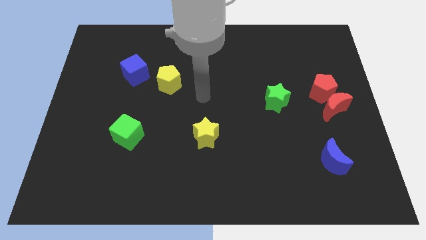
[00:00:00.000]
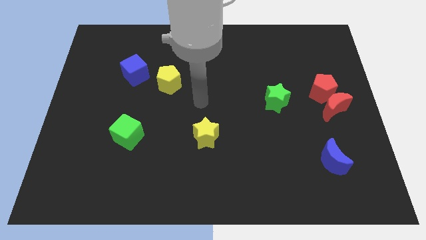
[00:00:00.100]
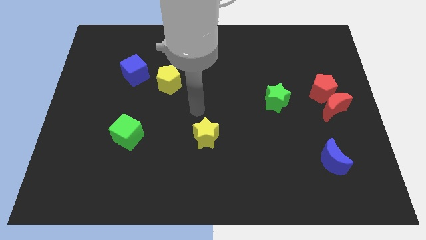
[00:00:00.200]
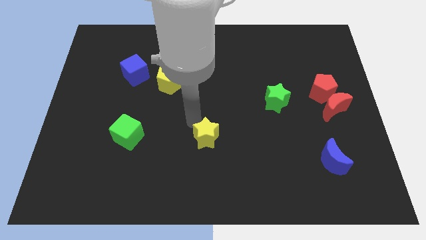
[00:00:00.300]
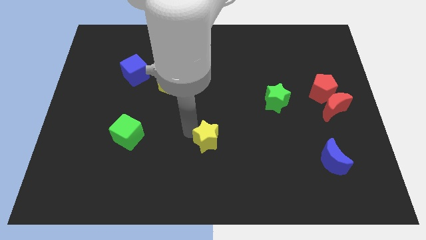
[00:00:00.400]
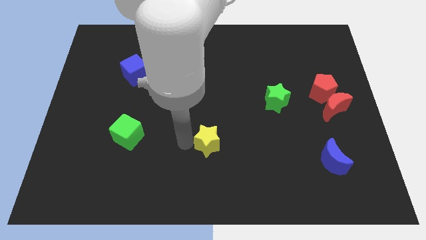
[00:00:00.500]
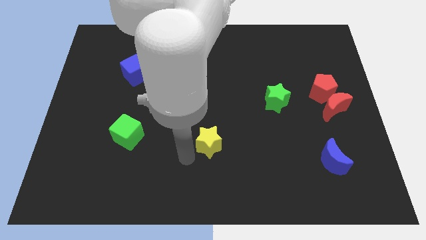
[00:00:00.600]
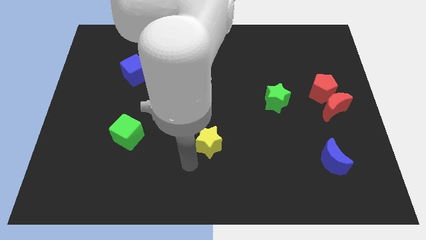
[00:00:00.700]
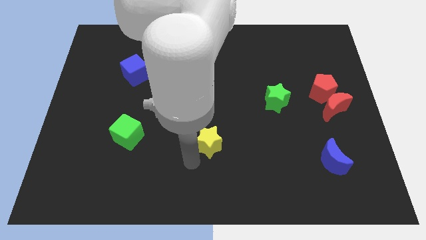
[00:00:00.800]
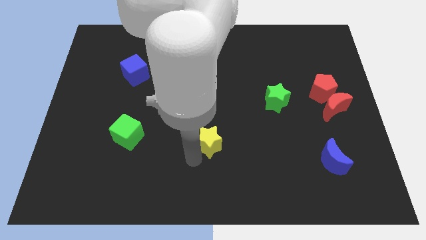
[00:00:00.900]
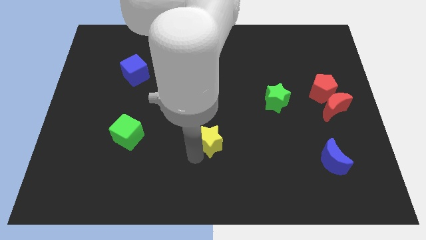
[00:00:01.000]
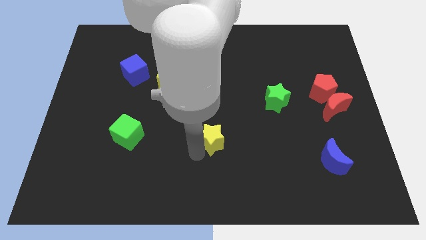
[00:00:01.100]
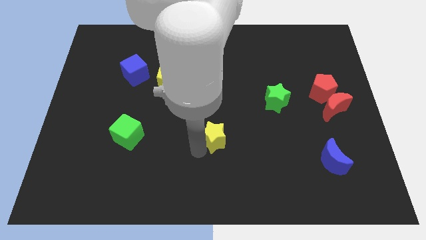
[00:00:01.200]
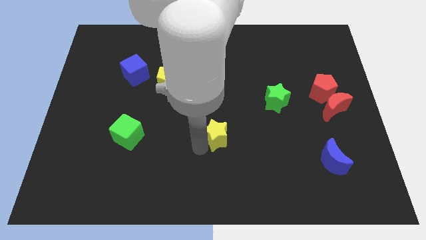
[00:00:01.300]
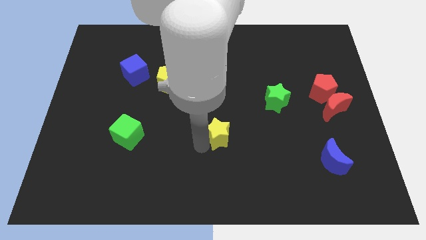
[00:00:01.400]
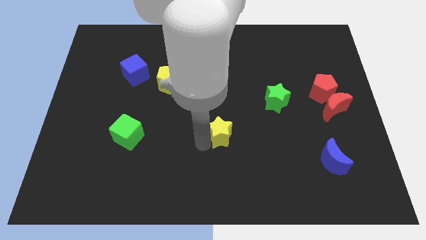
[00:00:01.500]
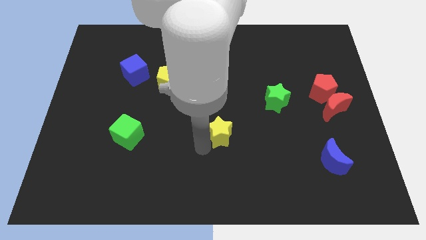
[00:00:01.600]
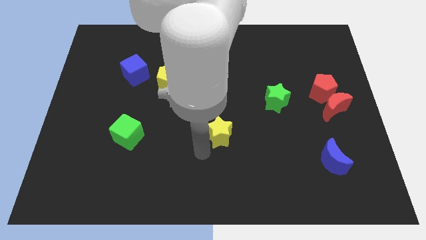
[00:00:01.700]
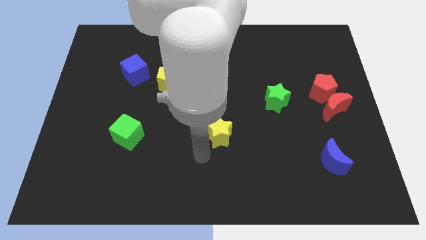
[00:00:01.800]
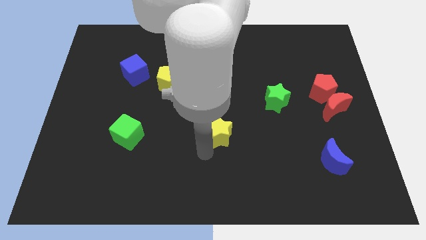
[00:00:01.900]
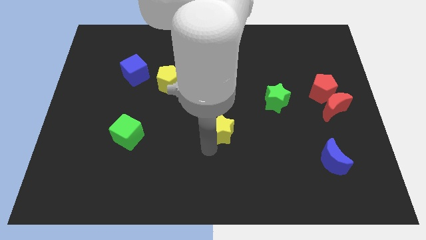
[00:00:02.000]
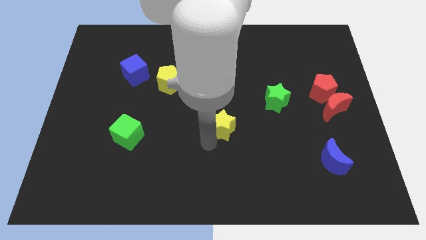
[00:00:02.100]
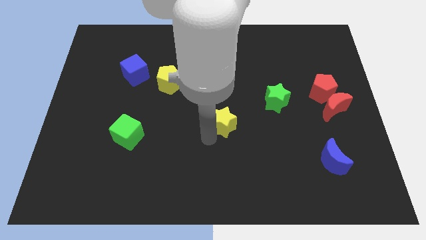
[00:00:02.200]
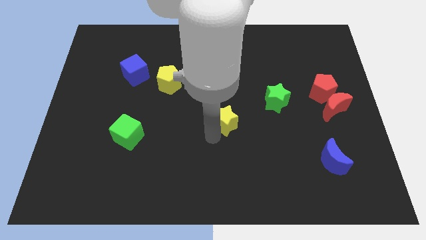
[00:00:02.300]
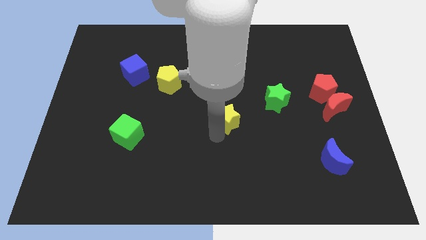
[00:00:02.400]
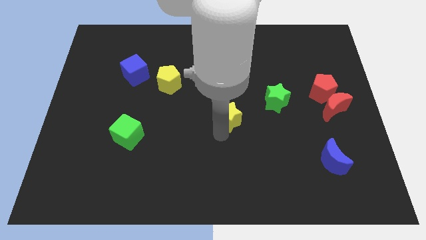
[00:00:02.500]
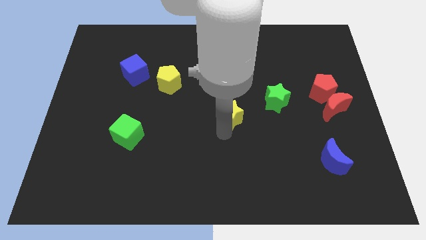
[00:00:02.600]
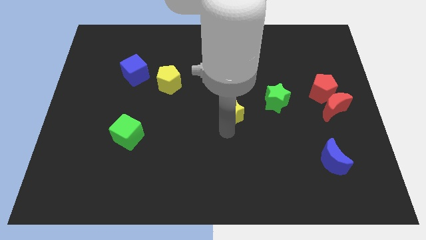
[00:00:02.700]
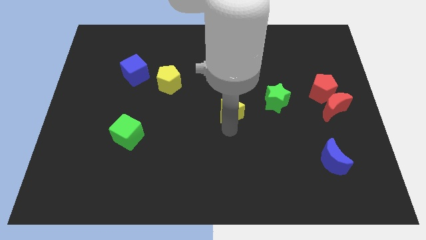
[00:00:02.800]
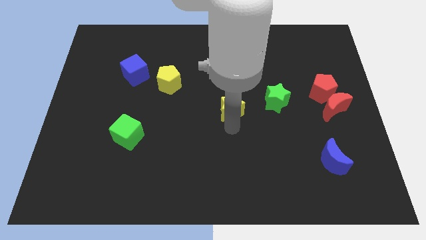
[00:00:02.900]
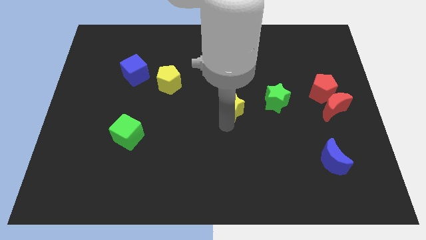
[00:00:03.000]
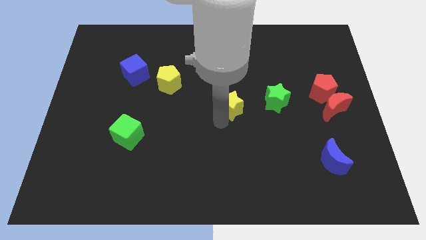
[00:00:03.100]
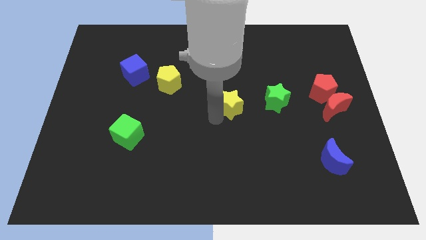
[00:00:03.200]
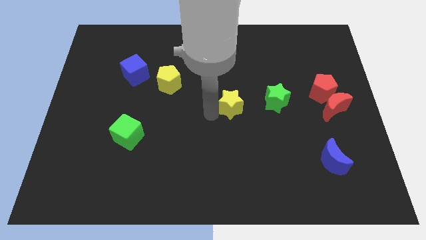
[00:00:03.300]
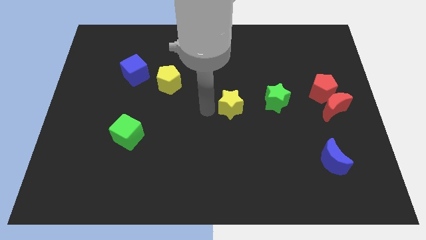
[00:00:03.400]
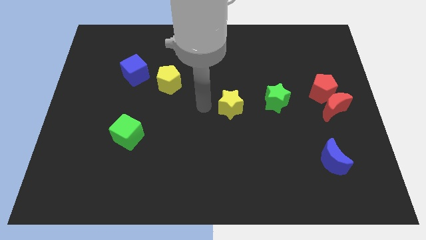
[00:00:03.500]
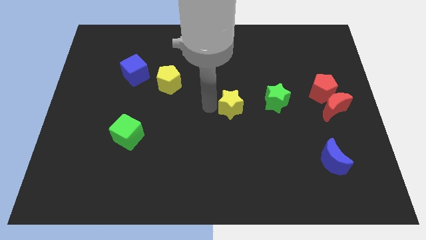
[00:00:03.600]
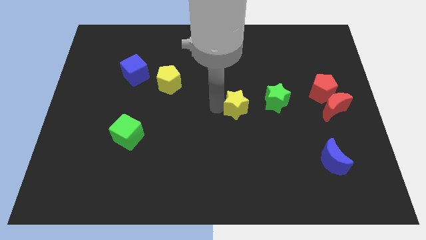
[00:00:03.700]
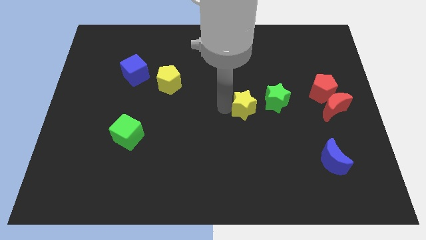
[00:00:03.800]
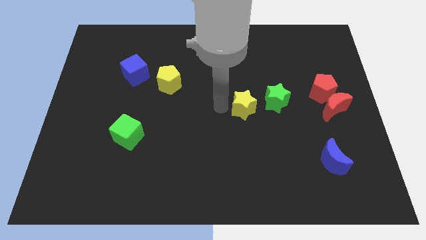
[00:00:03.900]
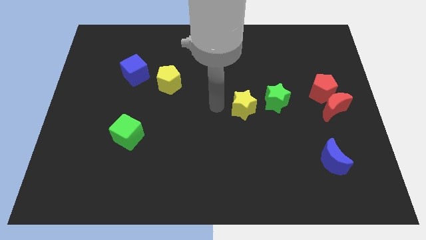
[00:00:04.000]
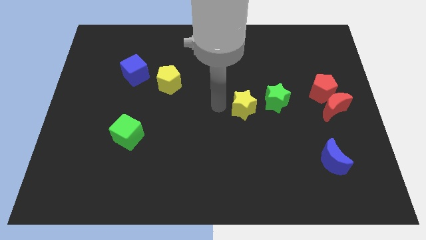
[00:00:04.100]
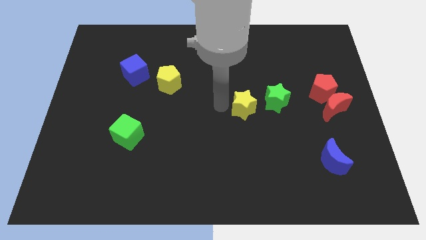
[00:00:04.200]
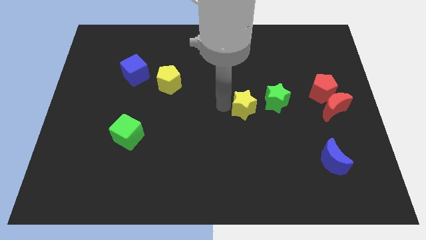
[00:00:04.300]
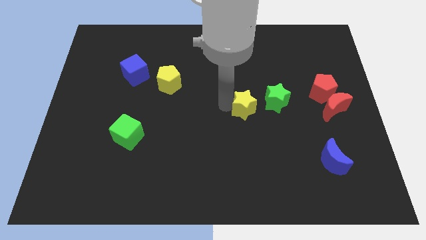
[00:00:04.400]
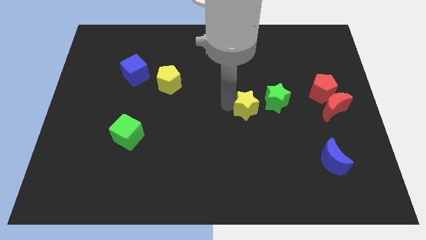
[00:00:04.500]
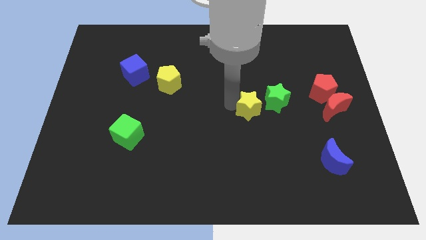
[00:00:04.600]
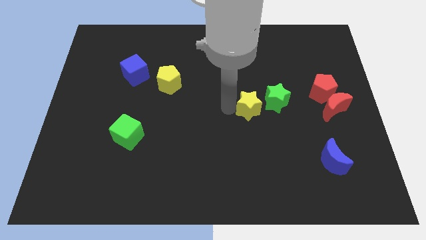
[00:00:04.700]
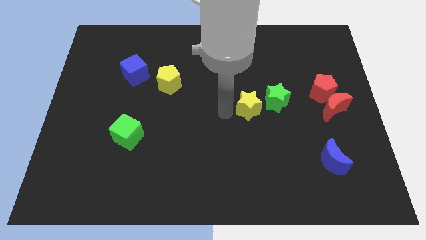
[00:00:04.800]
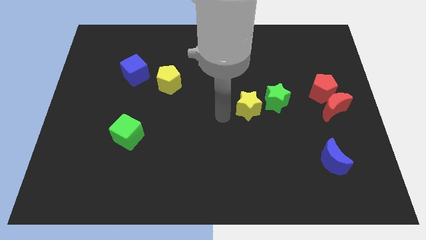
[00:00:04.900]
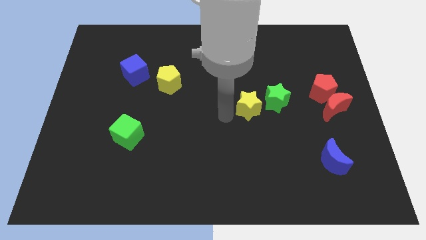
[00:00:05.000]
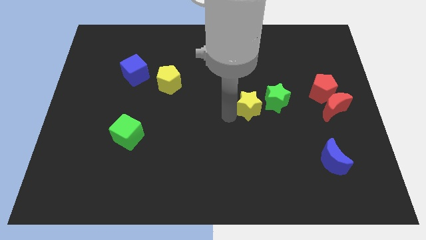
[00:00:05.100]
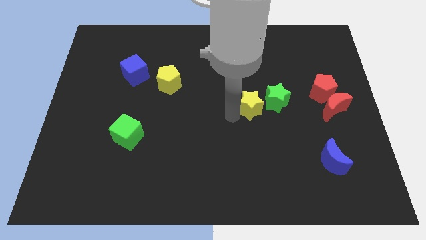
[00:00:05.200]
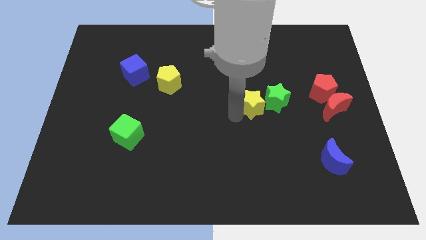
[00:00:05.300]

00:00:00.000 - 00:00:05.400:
put the yellow star to the green star

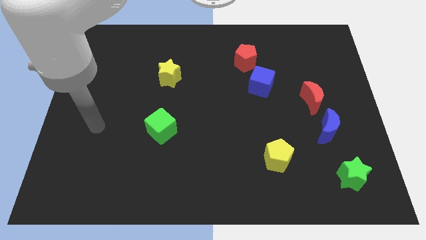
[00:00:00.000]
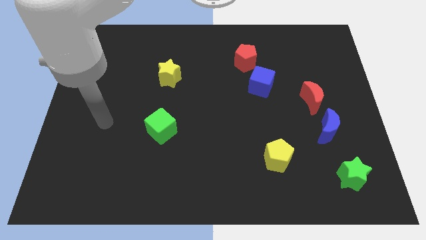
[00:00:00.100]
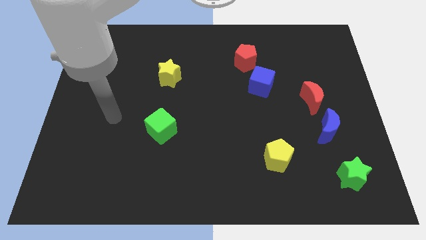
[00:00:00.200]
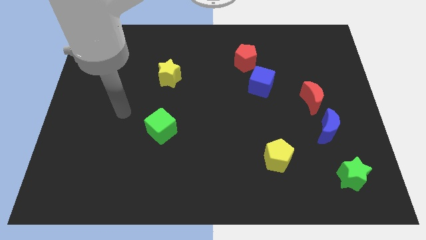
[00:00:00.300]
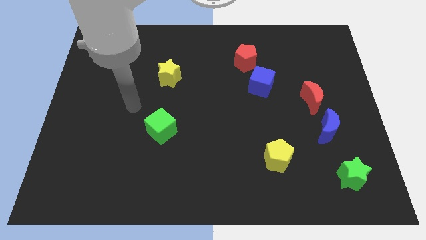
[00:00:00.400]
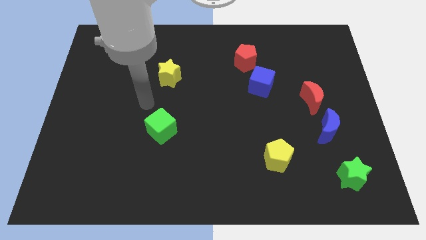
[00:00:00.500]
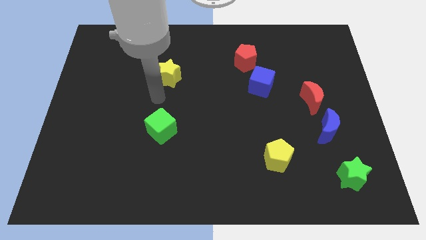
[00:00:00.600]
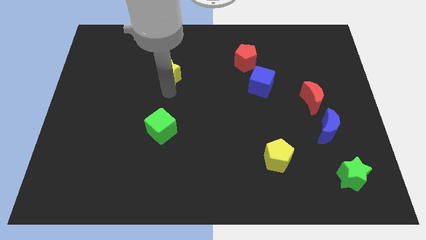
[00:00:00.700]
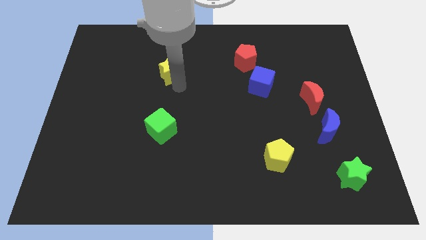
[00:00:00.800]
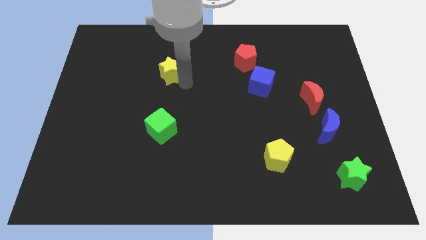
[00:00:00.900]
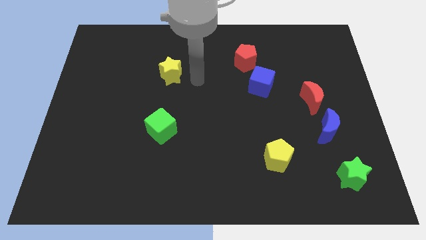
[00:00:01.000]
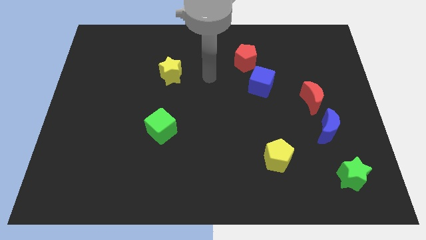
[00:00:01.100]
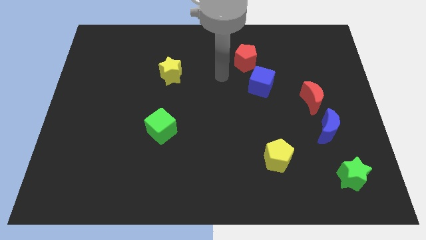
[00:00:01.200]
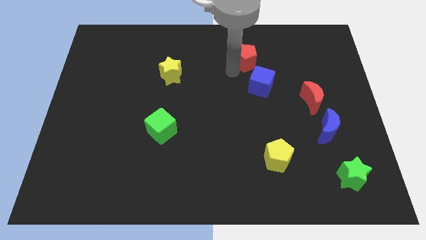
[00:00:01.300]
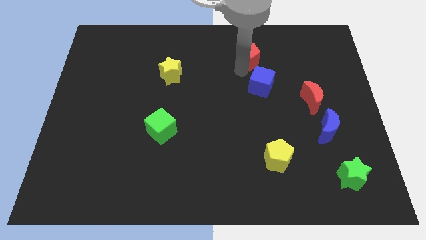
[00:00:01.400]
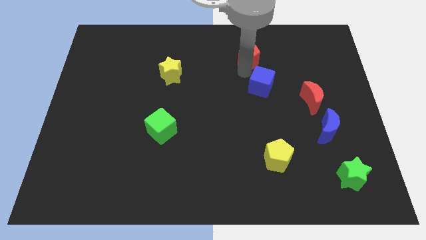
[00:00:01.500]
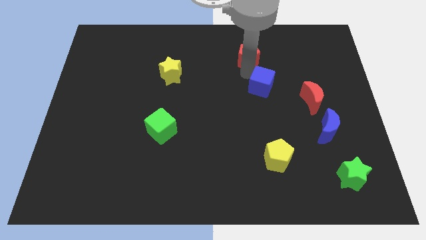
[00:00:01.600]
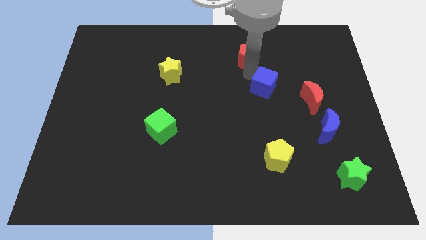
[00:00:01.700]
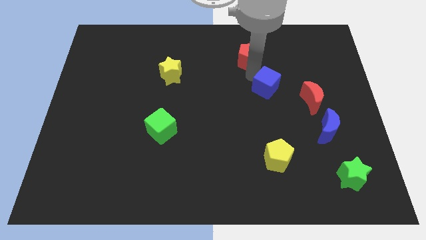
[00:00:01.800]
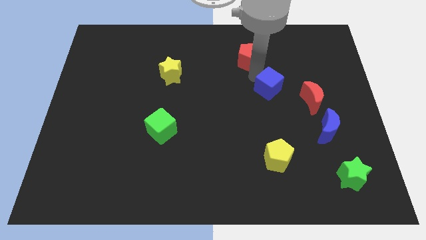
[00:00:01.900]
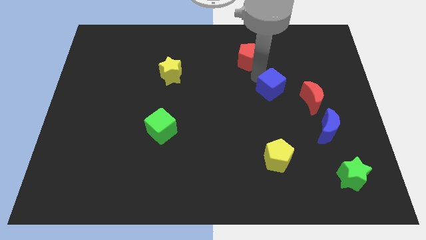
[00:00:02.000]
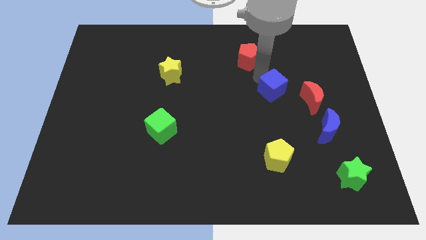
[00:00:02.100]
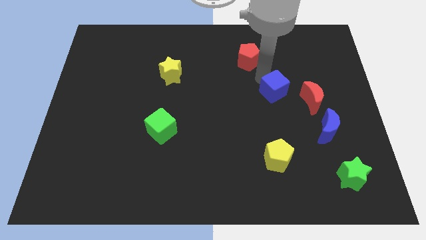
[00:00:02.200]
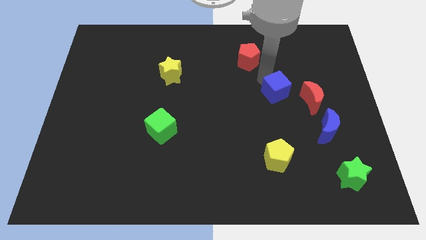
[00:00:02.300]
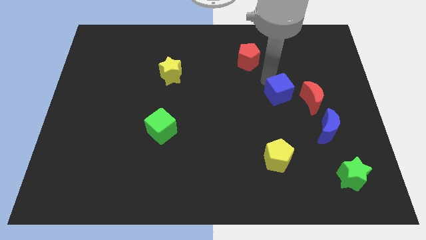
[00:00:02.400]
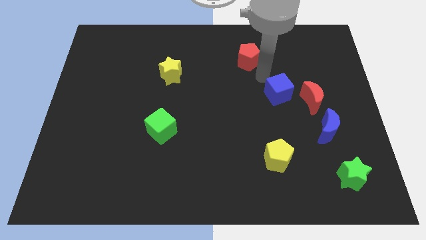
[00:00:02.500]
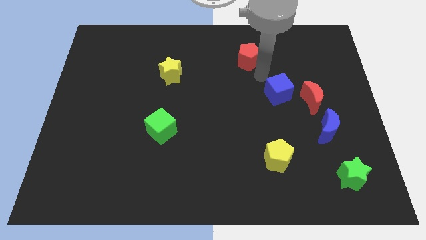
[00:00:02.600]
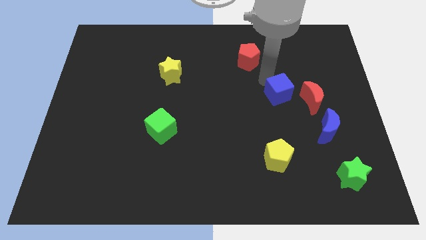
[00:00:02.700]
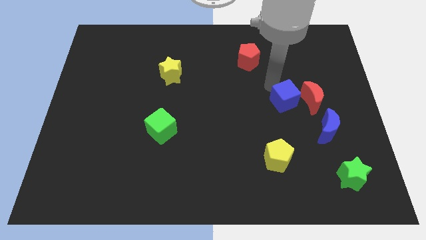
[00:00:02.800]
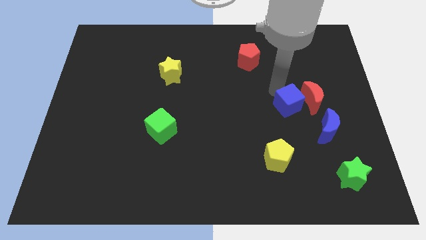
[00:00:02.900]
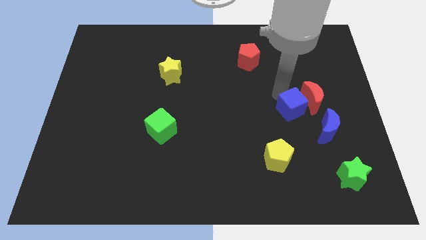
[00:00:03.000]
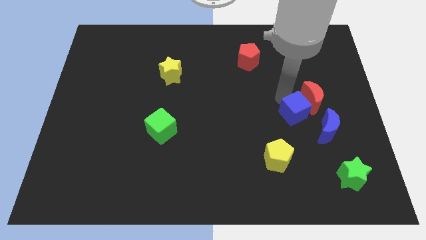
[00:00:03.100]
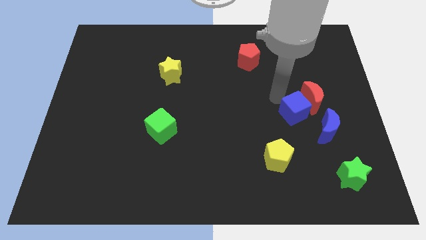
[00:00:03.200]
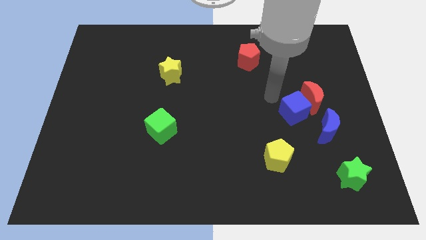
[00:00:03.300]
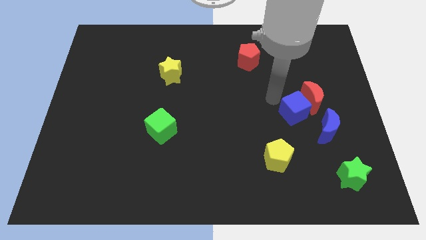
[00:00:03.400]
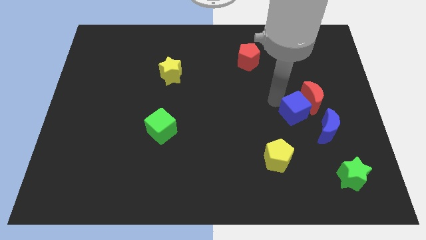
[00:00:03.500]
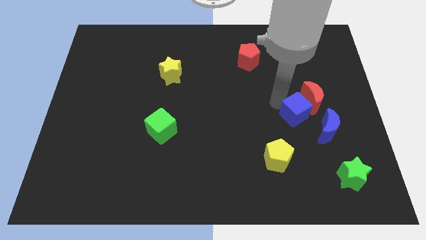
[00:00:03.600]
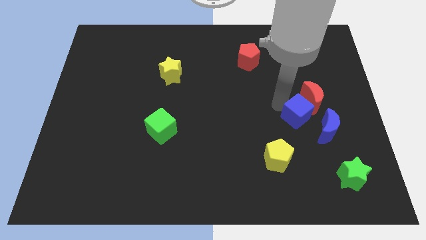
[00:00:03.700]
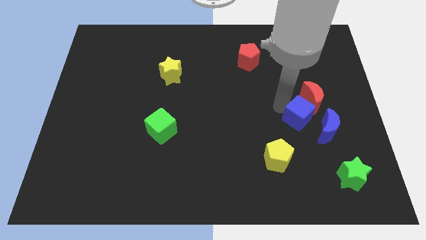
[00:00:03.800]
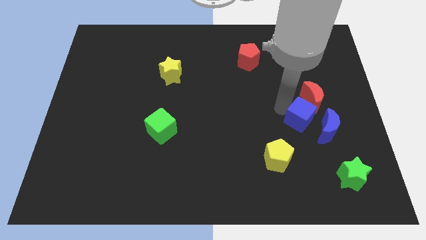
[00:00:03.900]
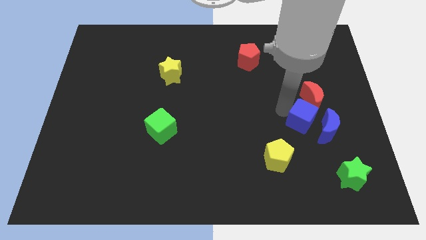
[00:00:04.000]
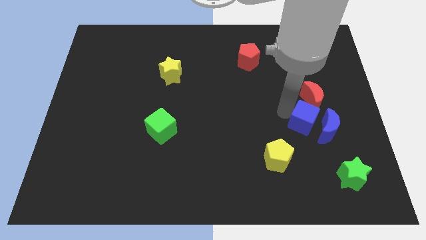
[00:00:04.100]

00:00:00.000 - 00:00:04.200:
push the blue cube to the blue moon
